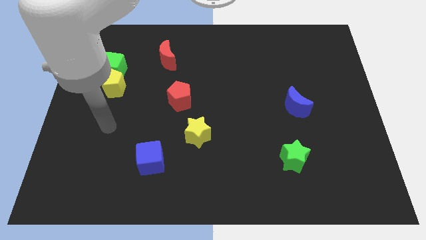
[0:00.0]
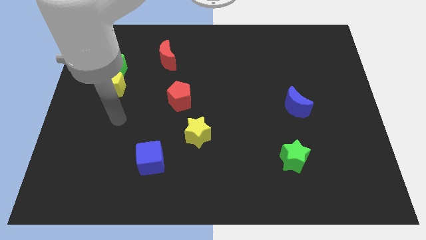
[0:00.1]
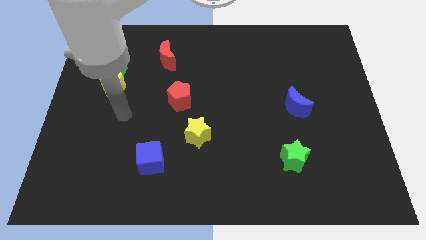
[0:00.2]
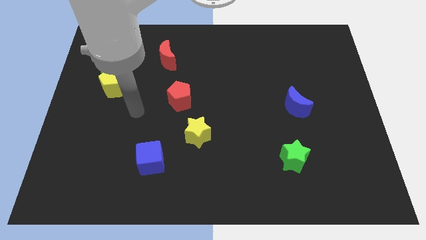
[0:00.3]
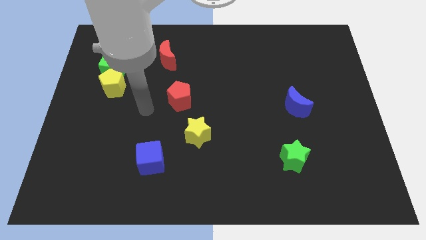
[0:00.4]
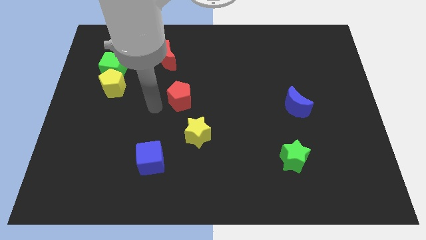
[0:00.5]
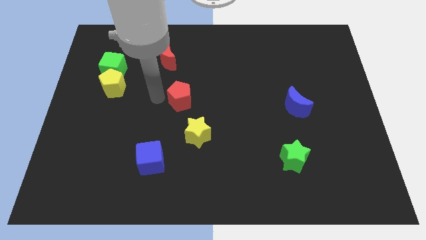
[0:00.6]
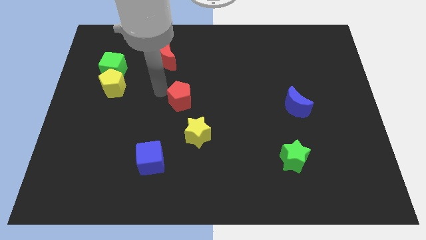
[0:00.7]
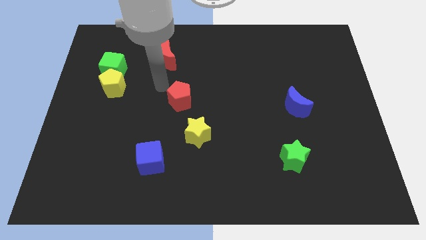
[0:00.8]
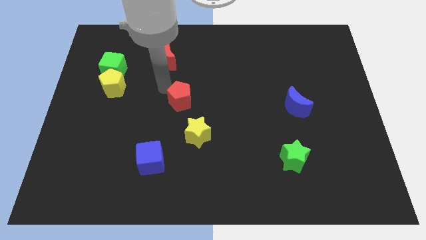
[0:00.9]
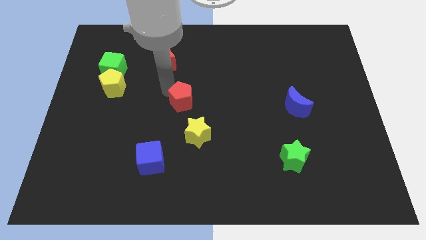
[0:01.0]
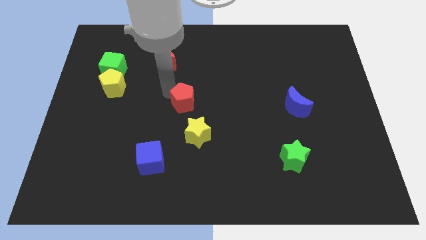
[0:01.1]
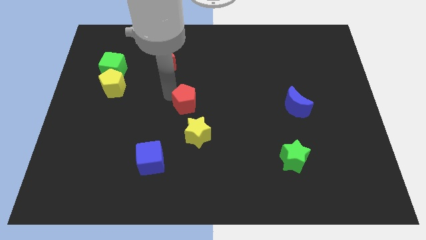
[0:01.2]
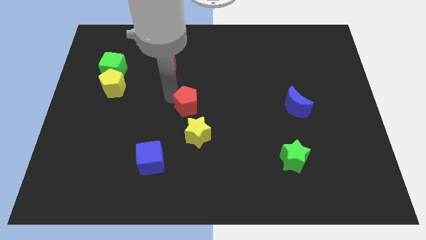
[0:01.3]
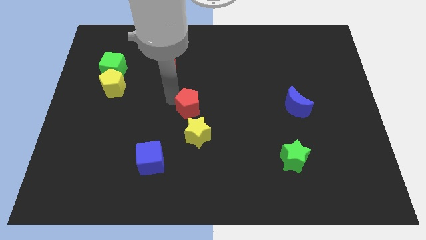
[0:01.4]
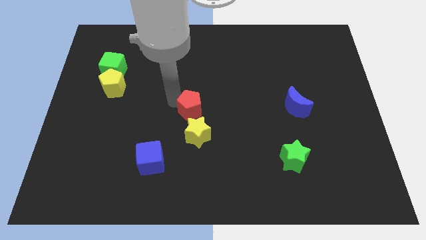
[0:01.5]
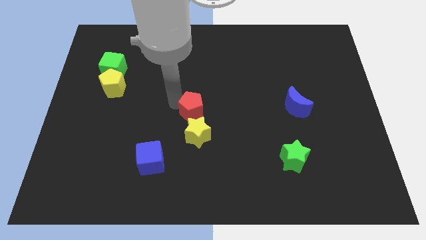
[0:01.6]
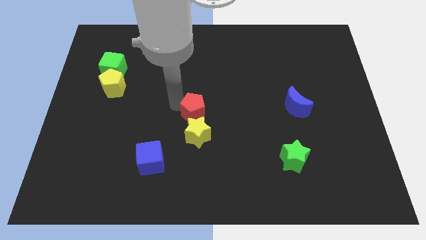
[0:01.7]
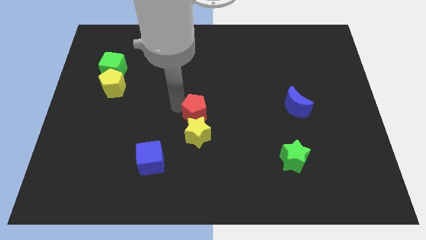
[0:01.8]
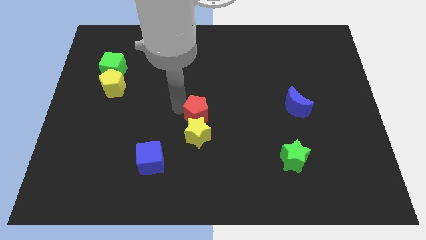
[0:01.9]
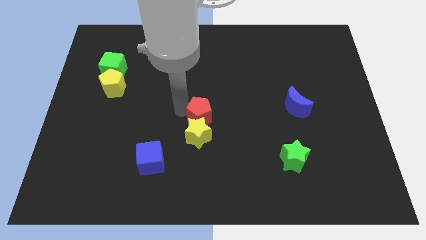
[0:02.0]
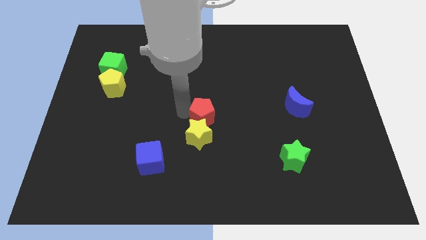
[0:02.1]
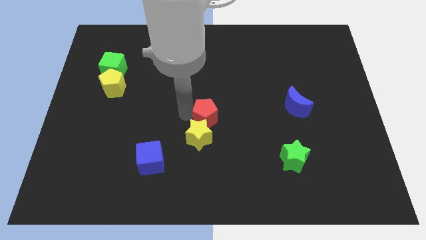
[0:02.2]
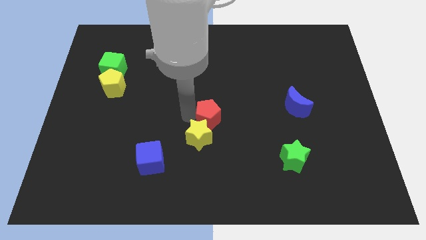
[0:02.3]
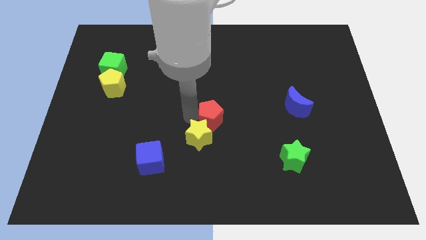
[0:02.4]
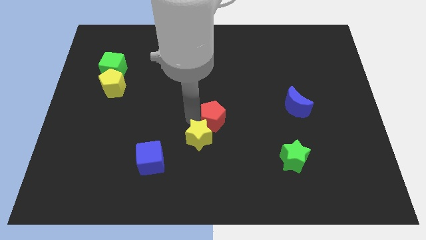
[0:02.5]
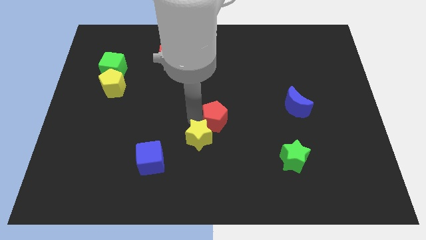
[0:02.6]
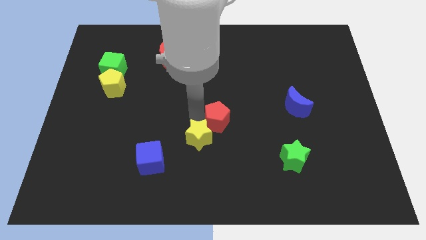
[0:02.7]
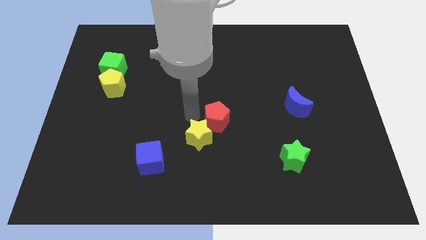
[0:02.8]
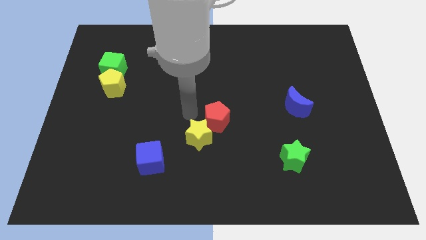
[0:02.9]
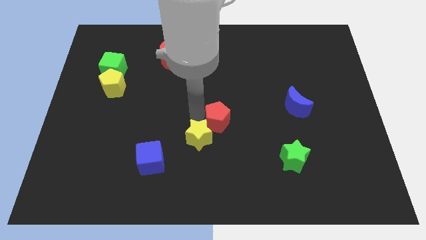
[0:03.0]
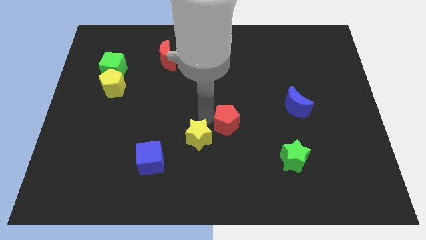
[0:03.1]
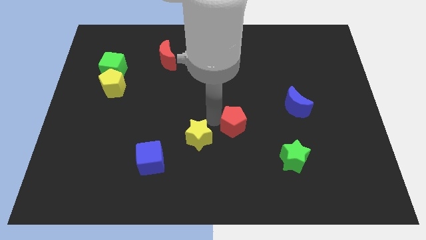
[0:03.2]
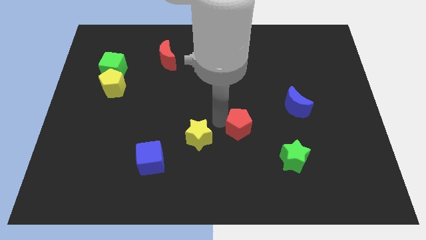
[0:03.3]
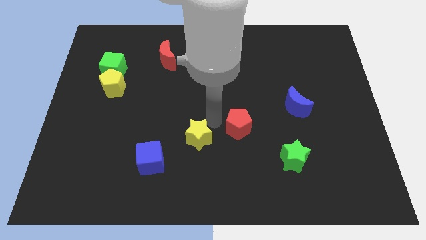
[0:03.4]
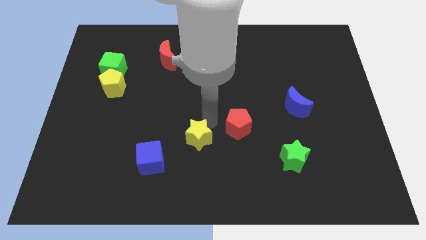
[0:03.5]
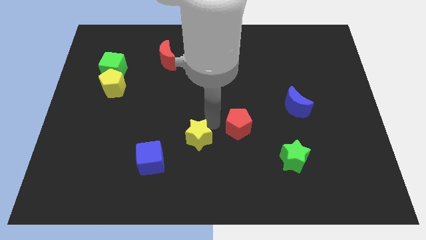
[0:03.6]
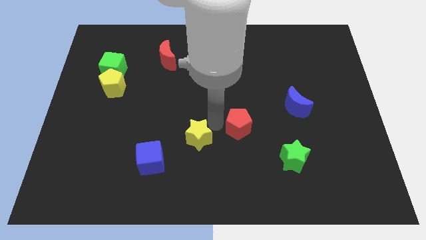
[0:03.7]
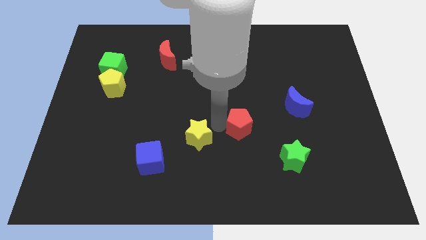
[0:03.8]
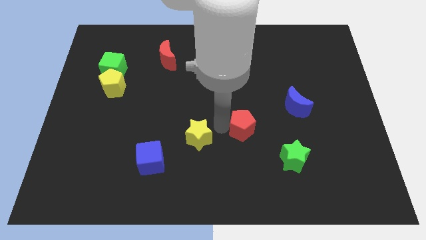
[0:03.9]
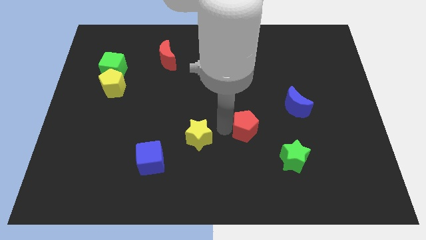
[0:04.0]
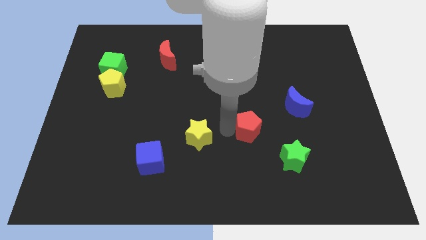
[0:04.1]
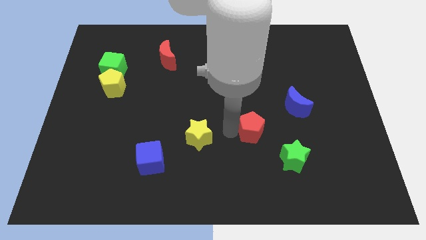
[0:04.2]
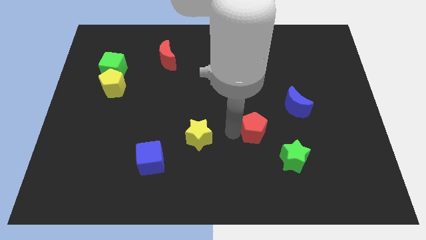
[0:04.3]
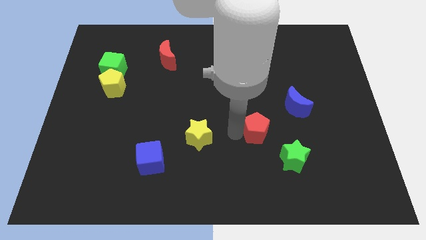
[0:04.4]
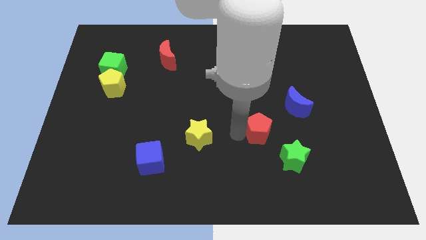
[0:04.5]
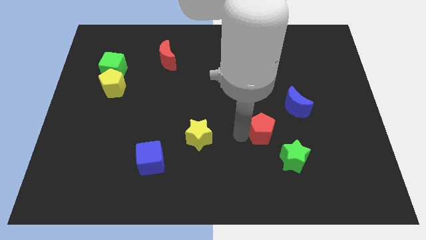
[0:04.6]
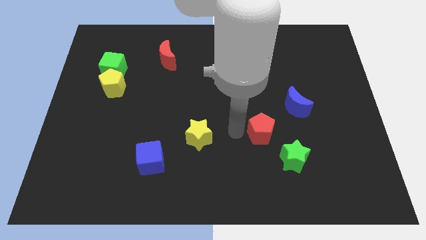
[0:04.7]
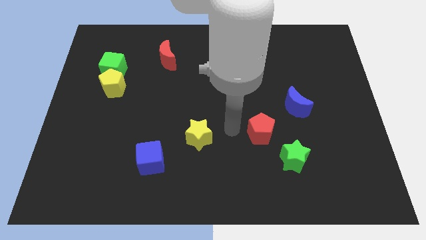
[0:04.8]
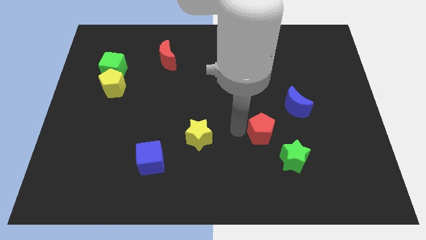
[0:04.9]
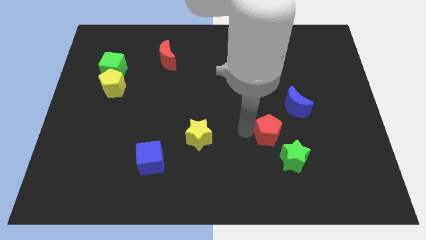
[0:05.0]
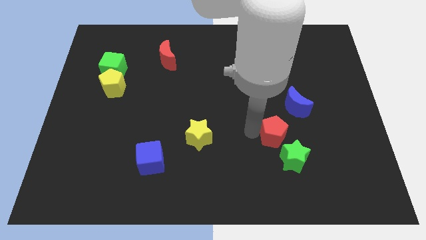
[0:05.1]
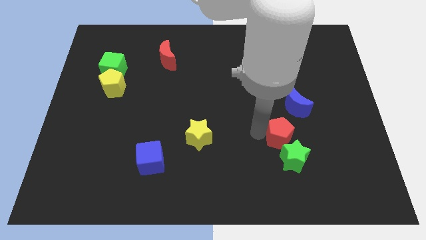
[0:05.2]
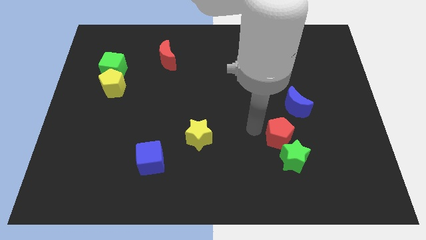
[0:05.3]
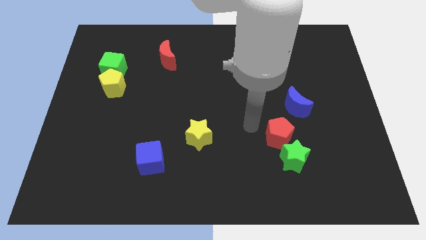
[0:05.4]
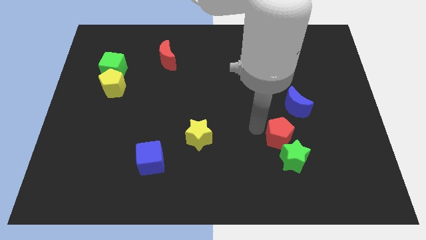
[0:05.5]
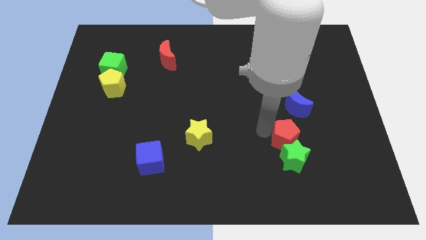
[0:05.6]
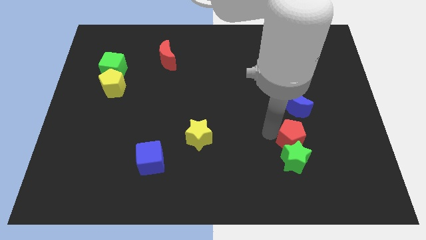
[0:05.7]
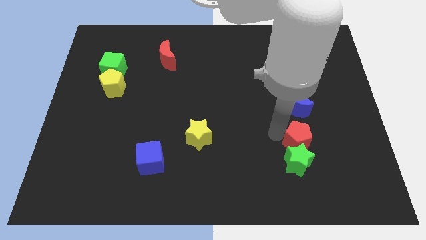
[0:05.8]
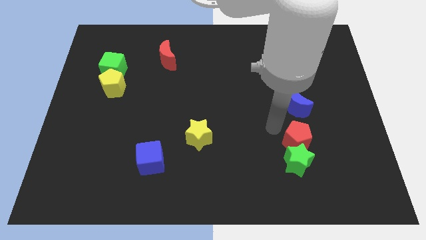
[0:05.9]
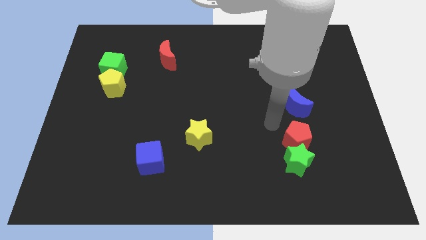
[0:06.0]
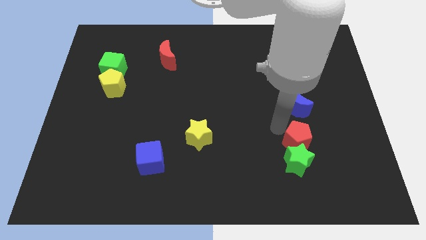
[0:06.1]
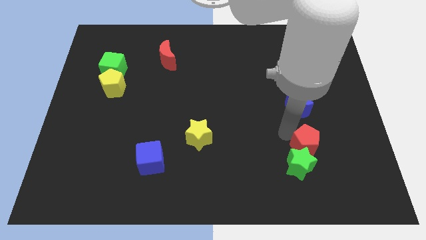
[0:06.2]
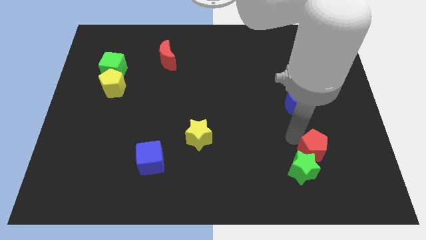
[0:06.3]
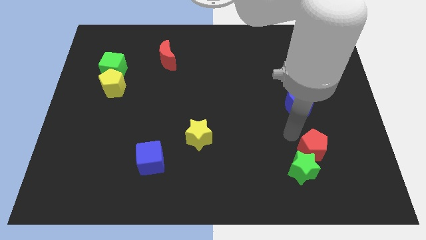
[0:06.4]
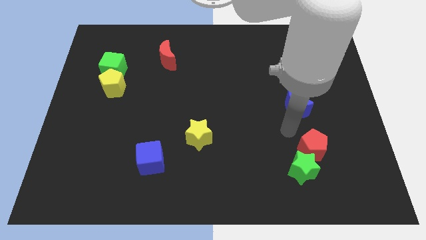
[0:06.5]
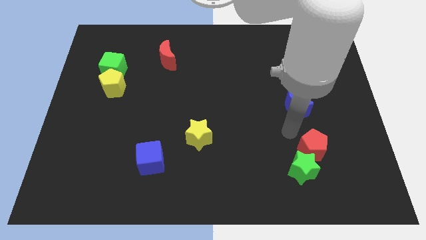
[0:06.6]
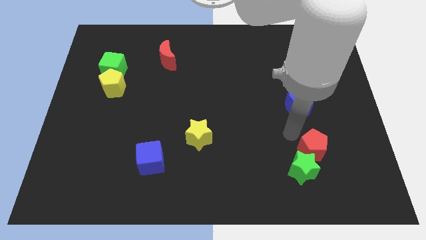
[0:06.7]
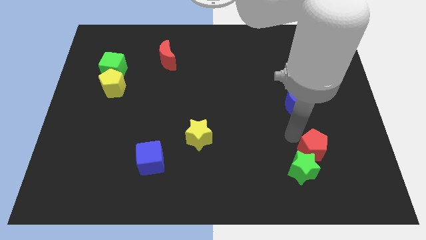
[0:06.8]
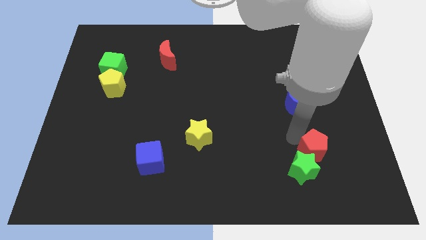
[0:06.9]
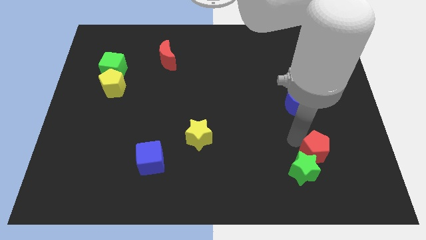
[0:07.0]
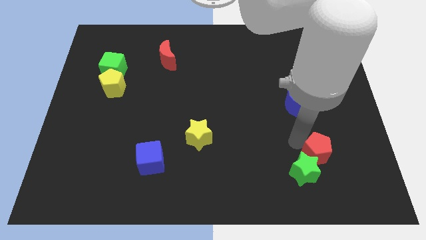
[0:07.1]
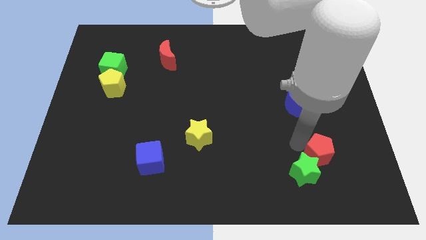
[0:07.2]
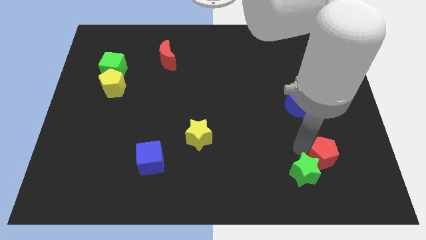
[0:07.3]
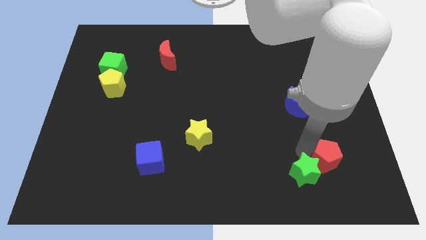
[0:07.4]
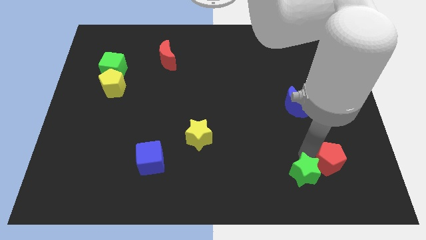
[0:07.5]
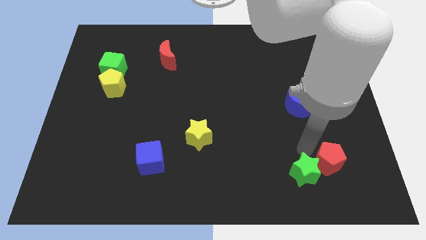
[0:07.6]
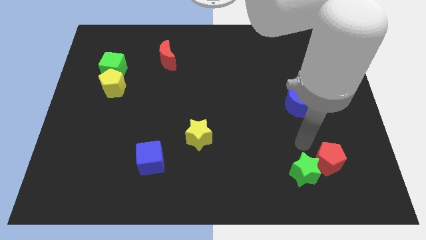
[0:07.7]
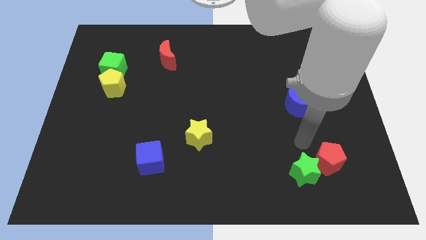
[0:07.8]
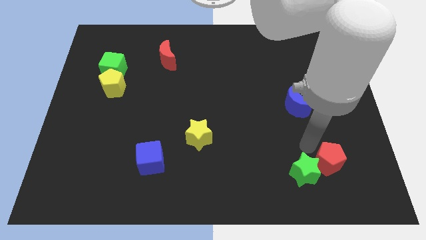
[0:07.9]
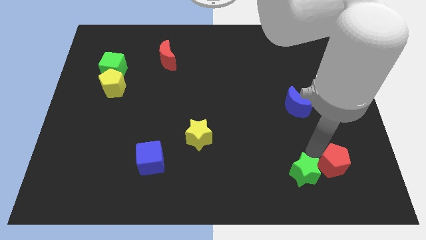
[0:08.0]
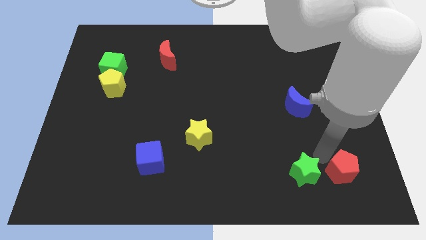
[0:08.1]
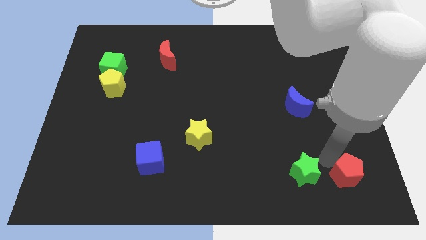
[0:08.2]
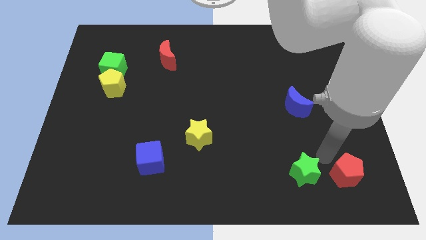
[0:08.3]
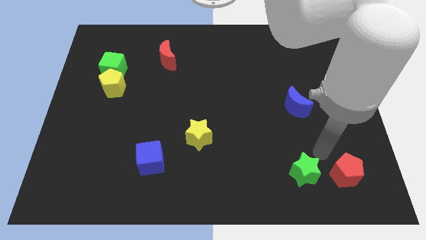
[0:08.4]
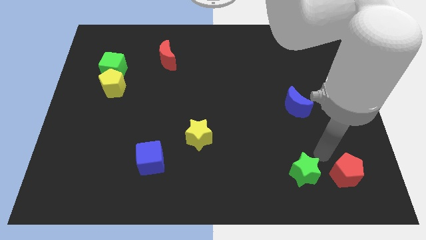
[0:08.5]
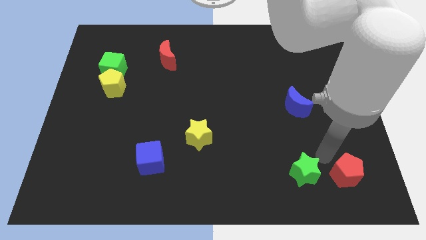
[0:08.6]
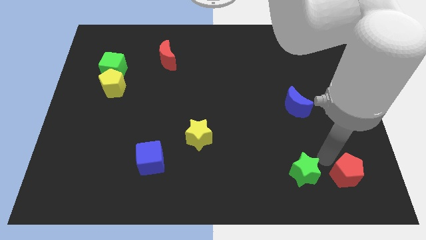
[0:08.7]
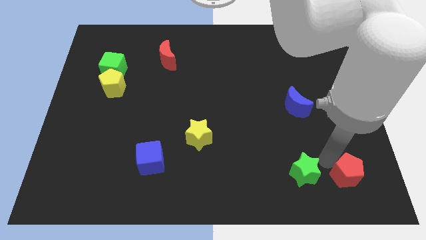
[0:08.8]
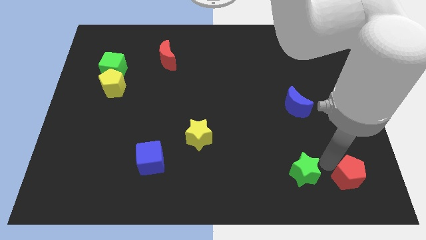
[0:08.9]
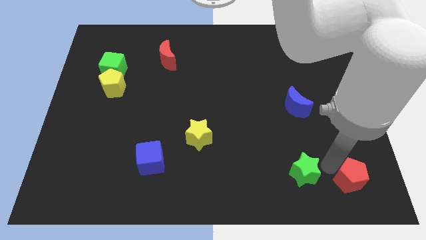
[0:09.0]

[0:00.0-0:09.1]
slide the red pentagon to the bottom right
